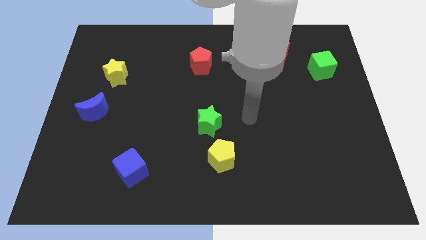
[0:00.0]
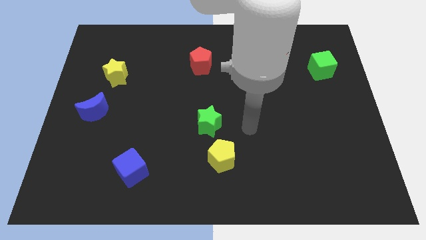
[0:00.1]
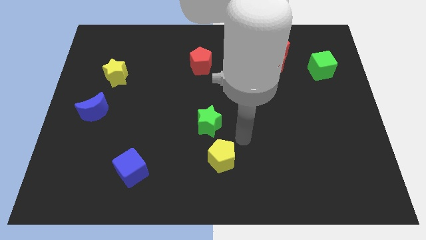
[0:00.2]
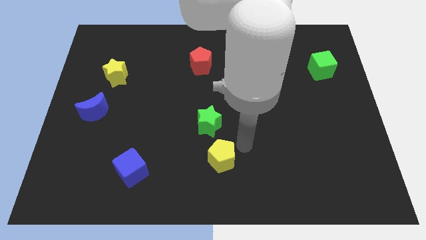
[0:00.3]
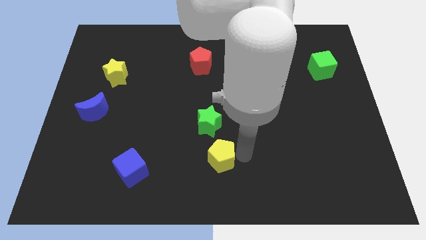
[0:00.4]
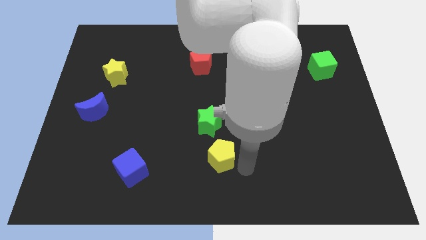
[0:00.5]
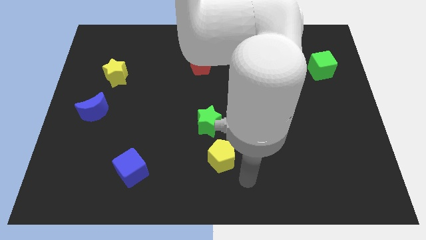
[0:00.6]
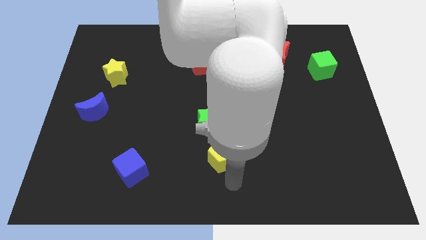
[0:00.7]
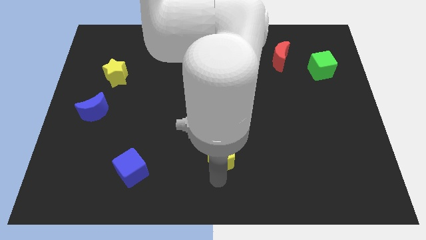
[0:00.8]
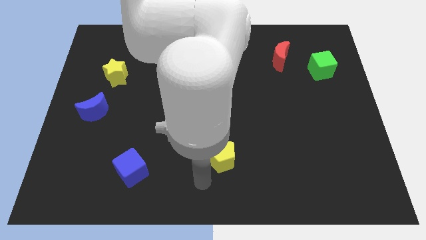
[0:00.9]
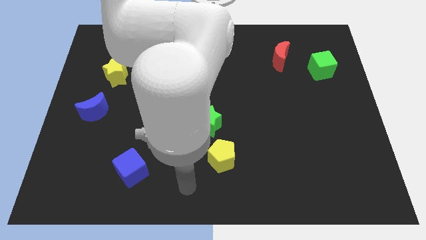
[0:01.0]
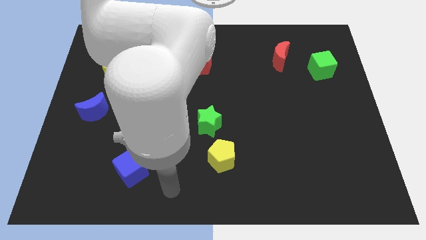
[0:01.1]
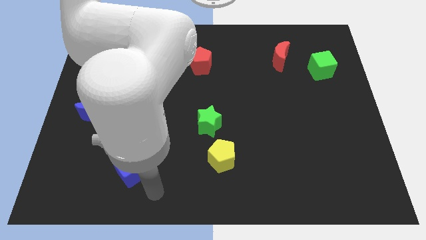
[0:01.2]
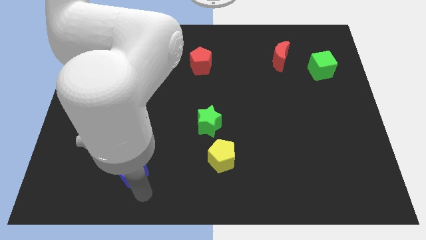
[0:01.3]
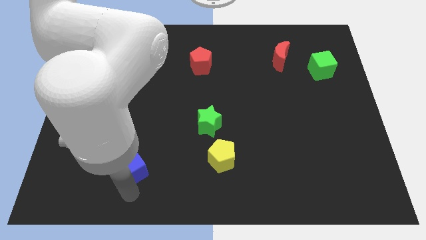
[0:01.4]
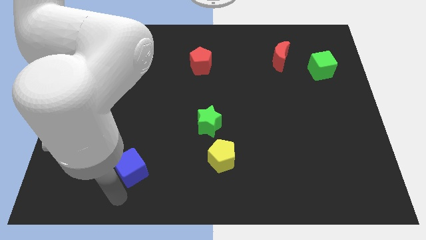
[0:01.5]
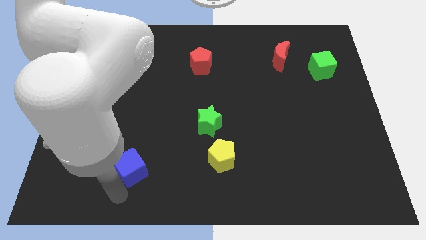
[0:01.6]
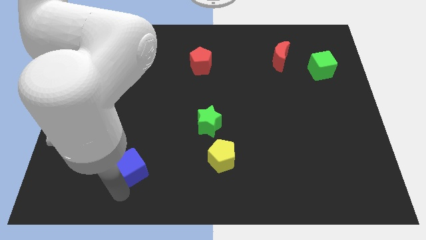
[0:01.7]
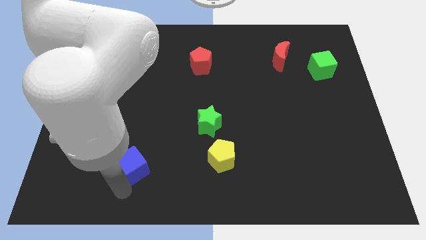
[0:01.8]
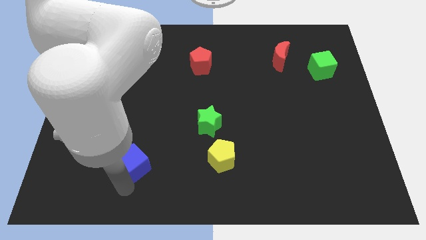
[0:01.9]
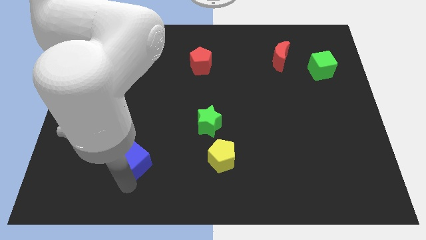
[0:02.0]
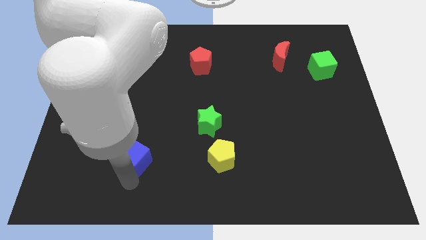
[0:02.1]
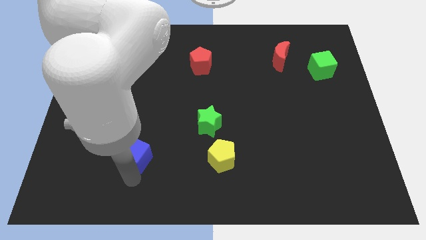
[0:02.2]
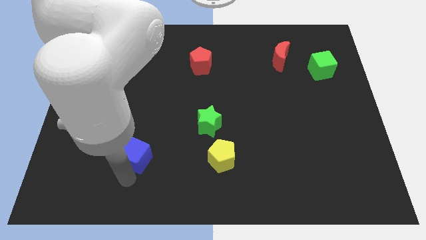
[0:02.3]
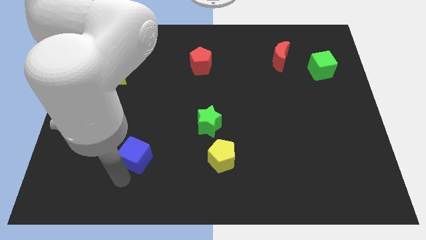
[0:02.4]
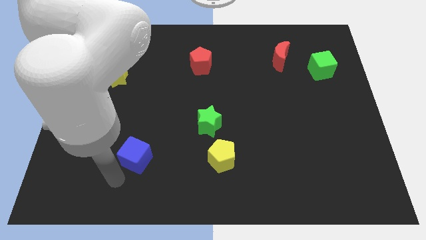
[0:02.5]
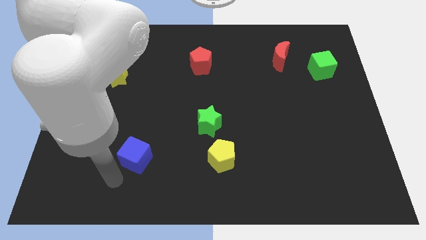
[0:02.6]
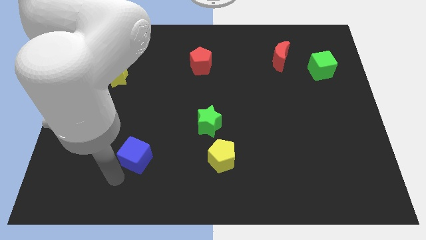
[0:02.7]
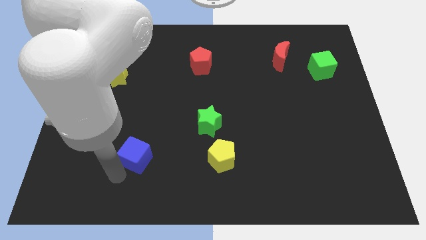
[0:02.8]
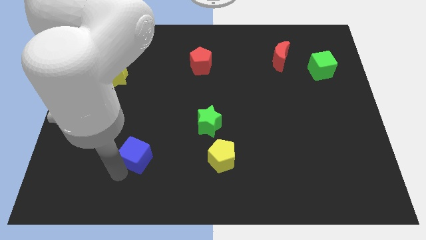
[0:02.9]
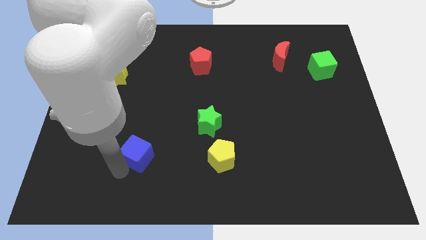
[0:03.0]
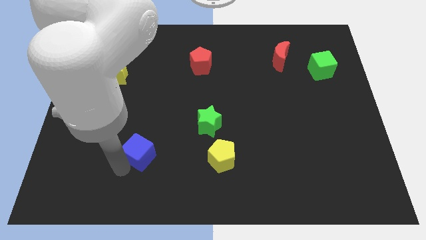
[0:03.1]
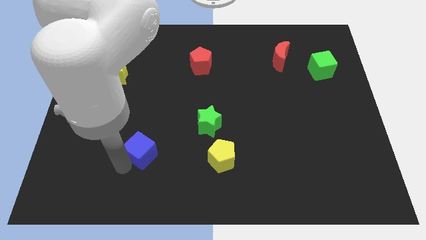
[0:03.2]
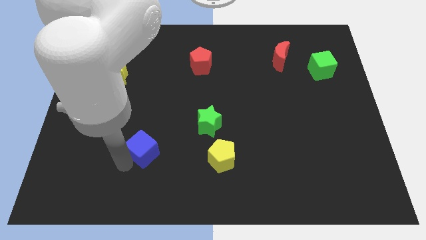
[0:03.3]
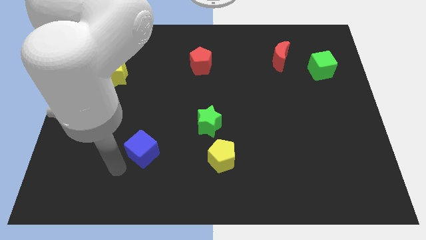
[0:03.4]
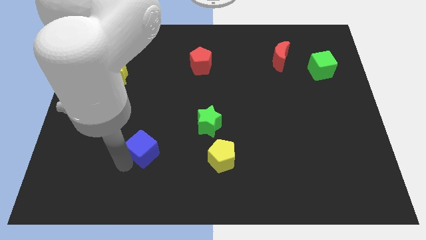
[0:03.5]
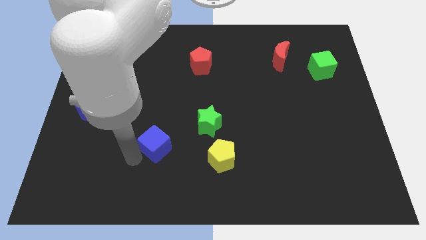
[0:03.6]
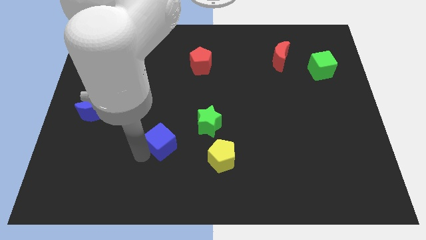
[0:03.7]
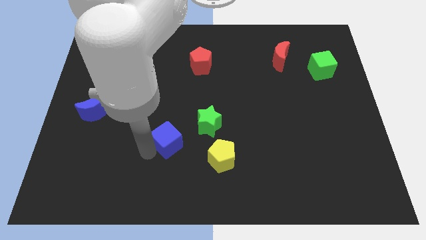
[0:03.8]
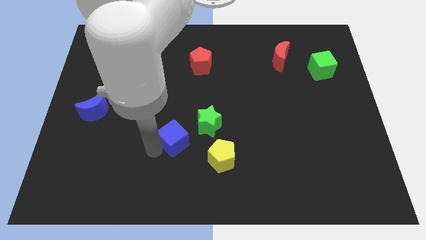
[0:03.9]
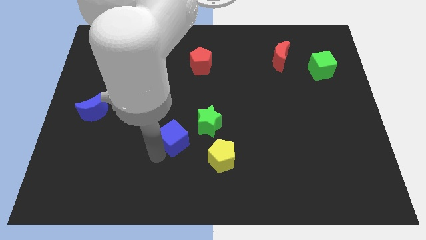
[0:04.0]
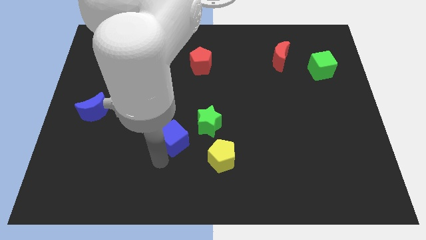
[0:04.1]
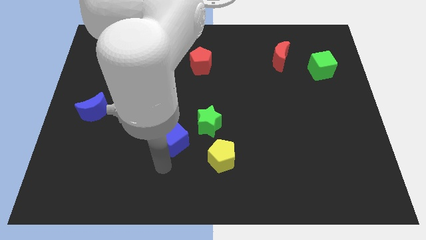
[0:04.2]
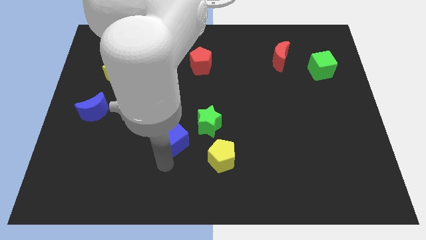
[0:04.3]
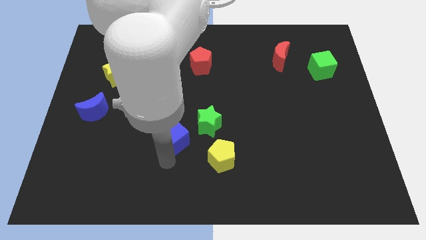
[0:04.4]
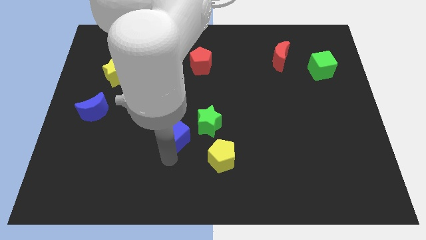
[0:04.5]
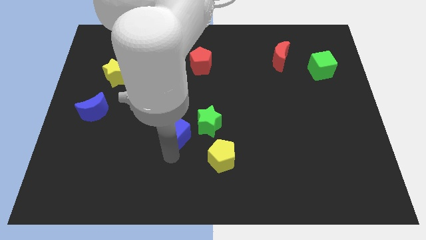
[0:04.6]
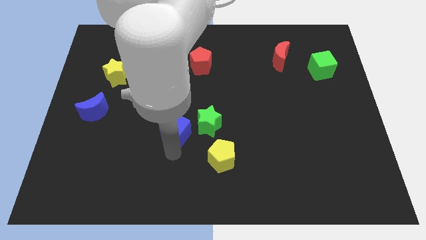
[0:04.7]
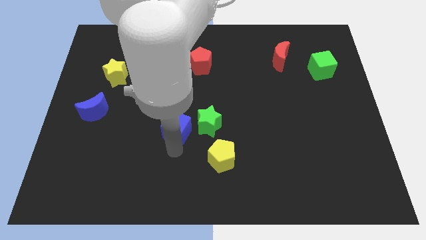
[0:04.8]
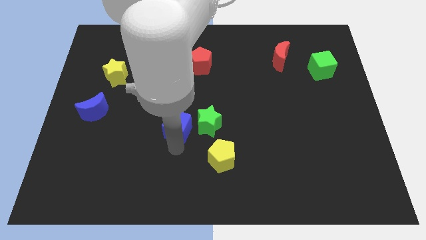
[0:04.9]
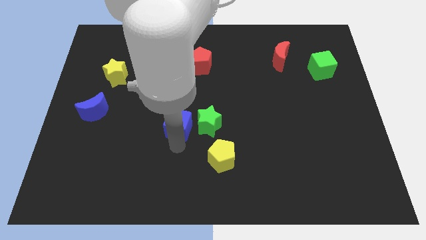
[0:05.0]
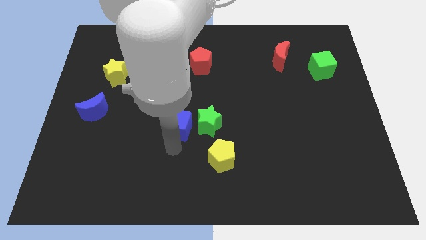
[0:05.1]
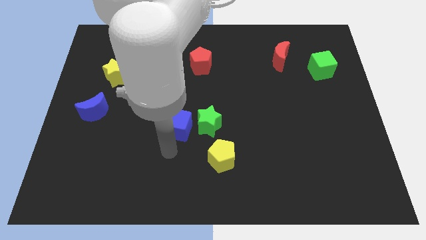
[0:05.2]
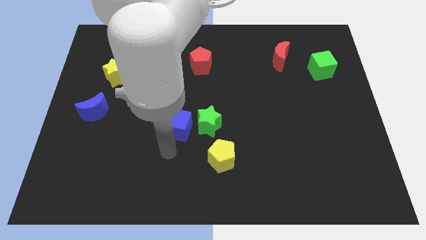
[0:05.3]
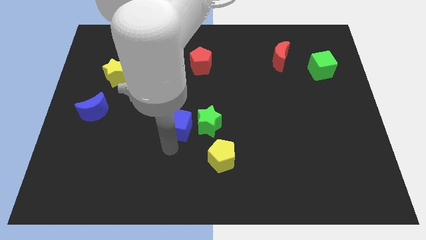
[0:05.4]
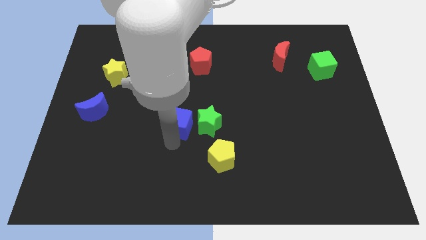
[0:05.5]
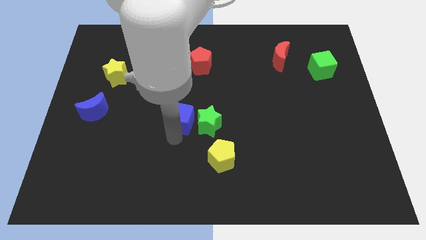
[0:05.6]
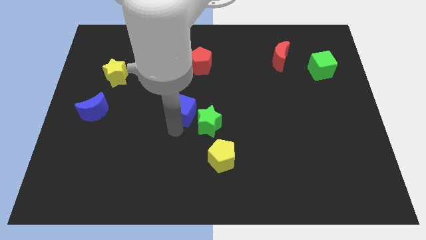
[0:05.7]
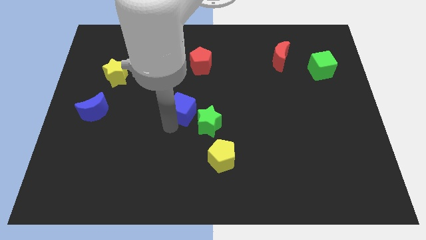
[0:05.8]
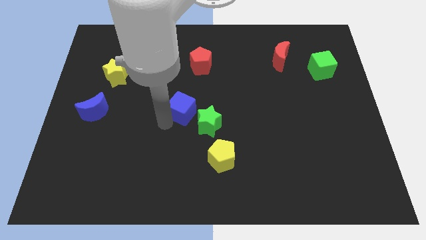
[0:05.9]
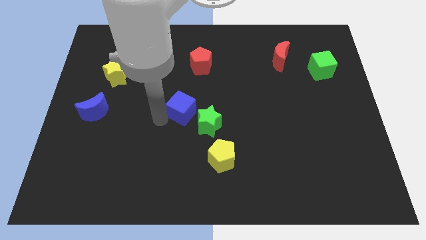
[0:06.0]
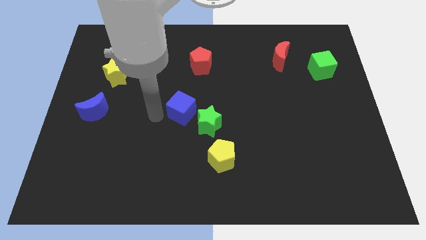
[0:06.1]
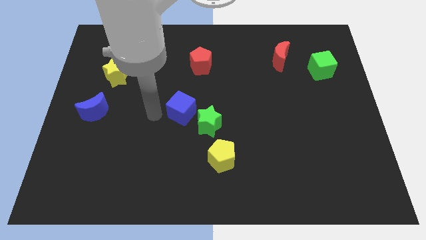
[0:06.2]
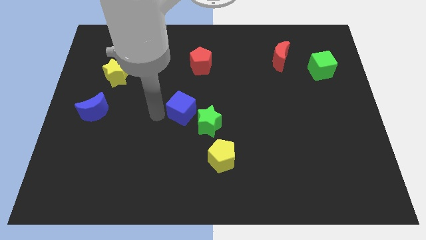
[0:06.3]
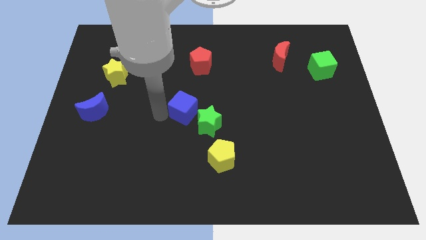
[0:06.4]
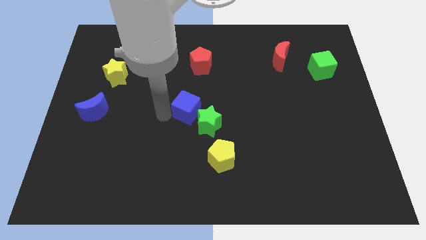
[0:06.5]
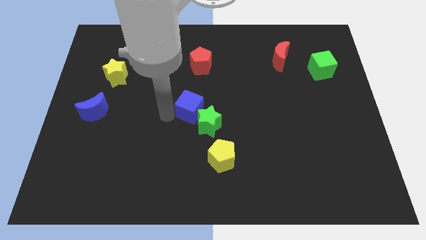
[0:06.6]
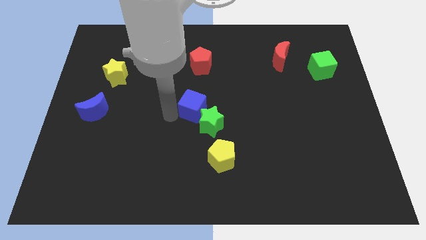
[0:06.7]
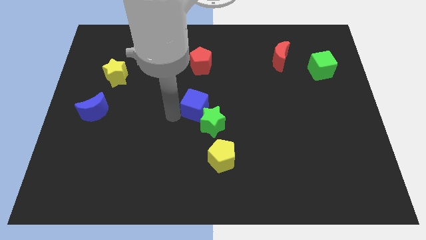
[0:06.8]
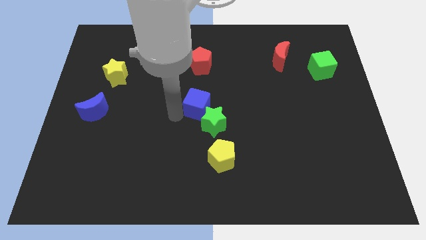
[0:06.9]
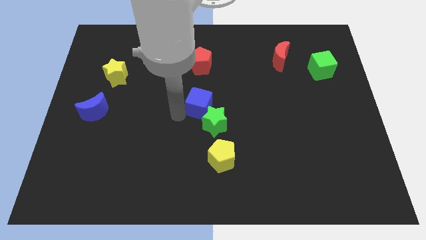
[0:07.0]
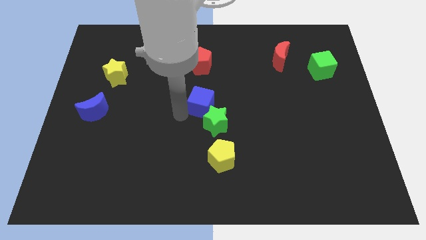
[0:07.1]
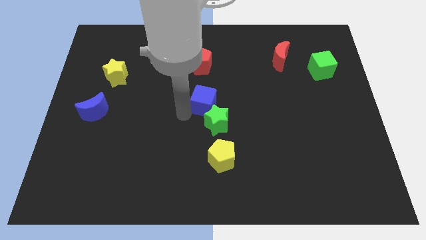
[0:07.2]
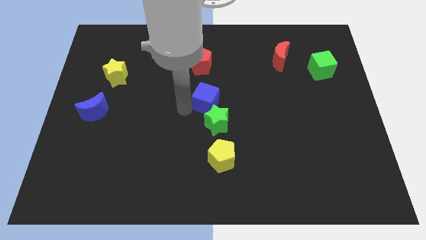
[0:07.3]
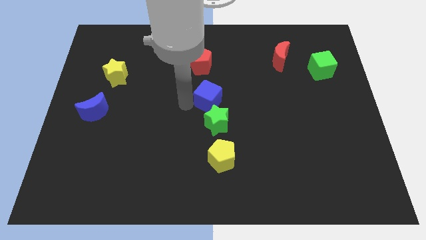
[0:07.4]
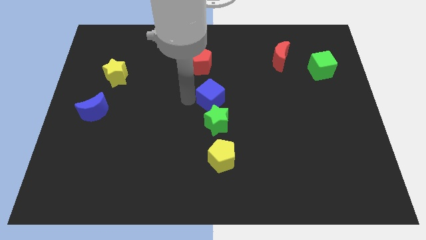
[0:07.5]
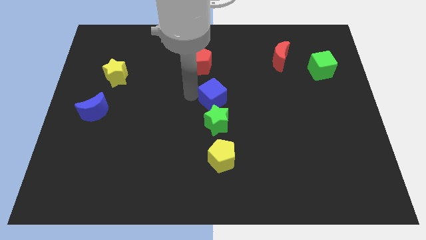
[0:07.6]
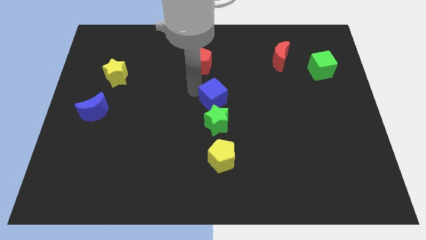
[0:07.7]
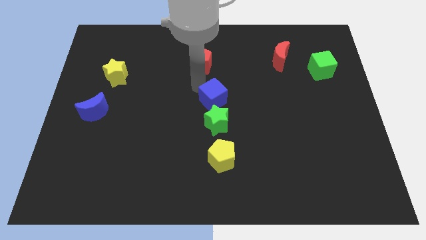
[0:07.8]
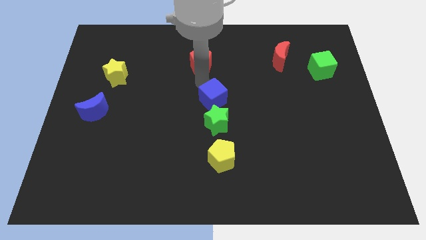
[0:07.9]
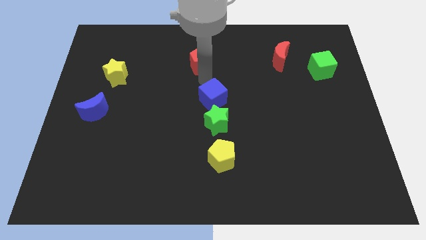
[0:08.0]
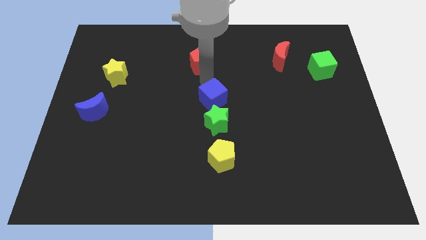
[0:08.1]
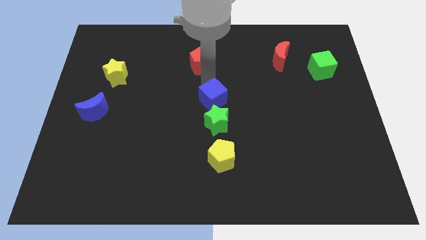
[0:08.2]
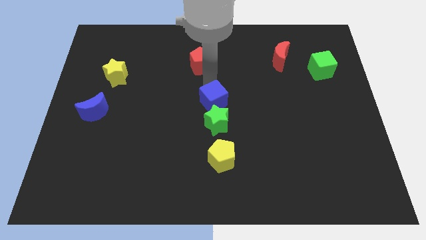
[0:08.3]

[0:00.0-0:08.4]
put the blue cube to the top side of the yellow pentagon
